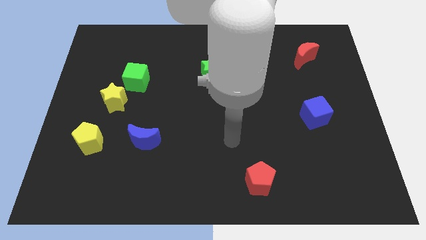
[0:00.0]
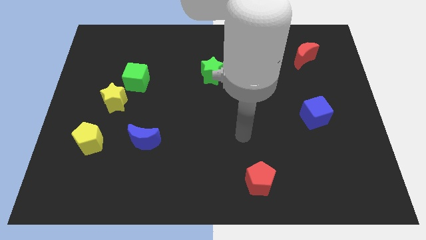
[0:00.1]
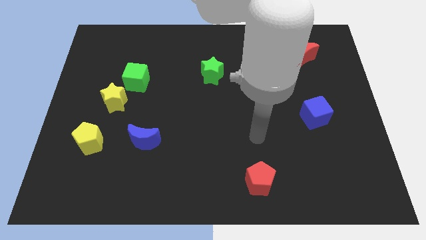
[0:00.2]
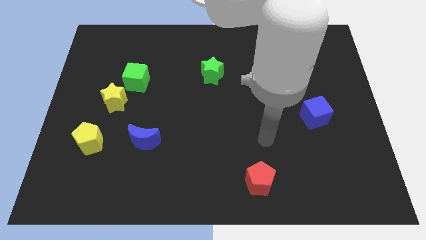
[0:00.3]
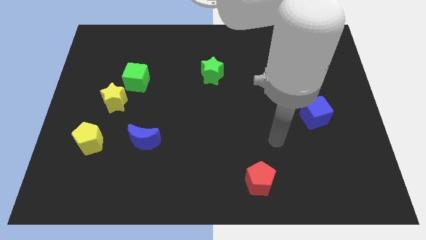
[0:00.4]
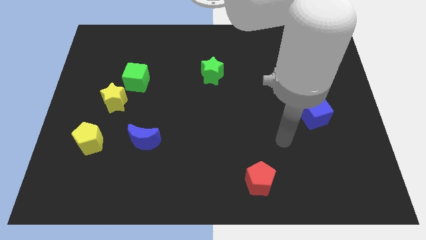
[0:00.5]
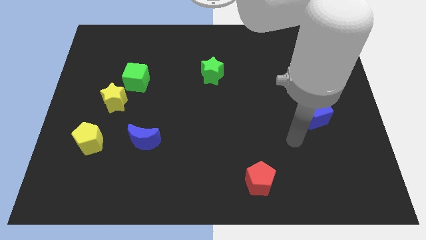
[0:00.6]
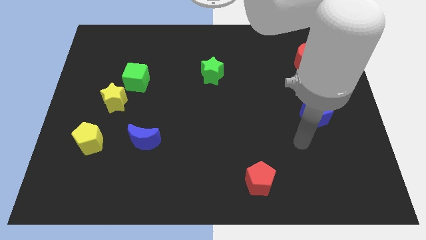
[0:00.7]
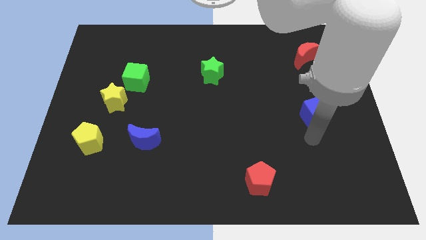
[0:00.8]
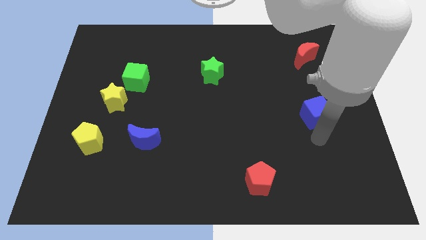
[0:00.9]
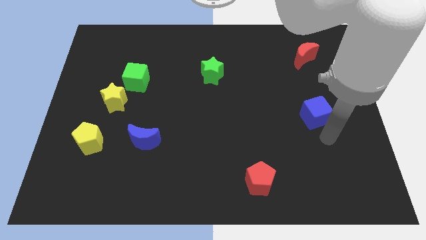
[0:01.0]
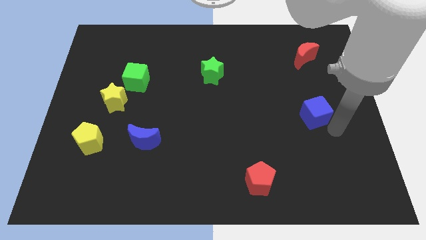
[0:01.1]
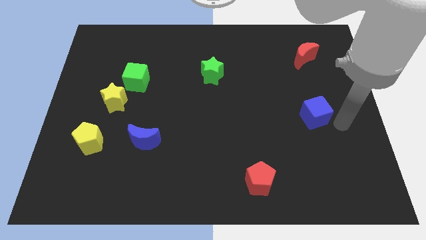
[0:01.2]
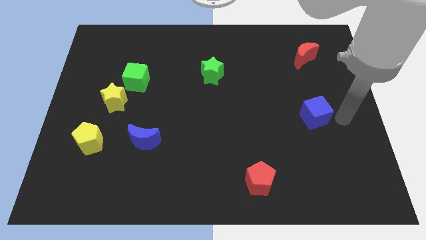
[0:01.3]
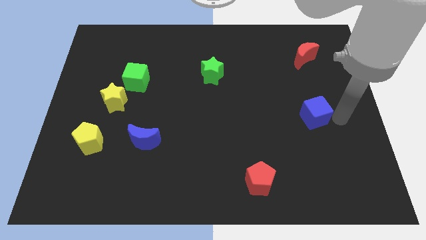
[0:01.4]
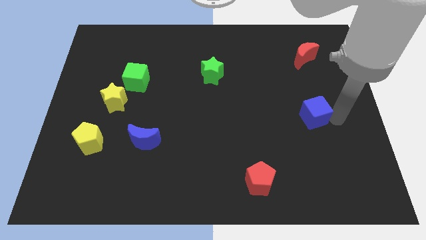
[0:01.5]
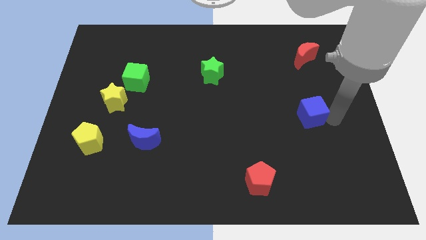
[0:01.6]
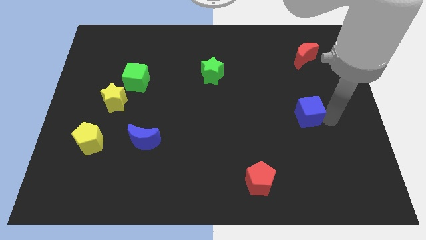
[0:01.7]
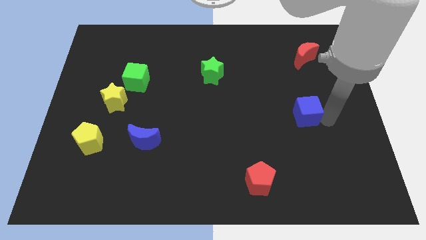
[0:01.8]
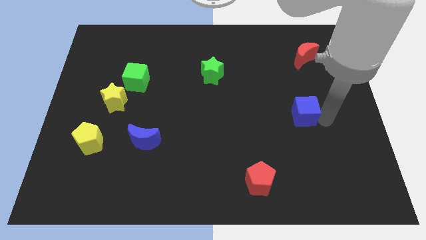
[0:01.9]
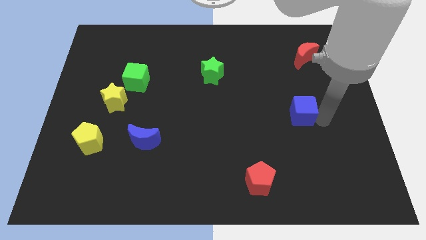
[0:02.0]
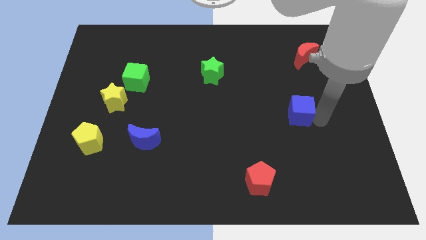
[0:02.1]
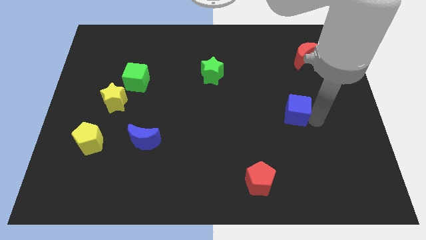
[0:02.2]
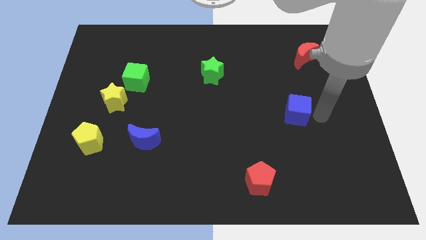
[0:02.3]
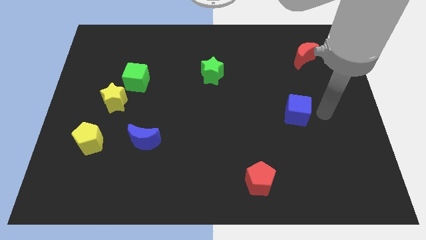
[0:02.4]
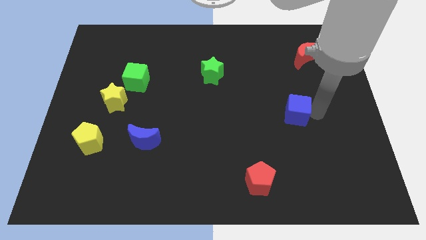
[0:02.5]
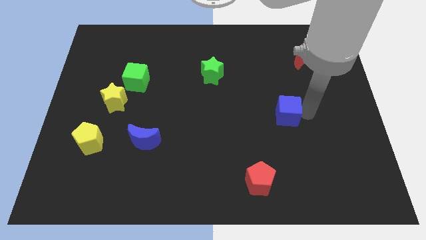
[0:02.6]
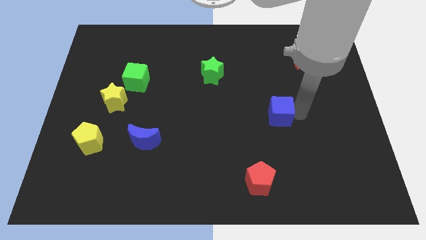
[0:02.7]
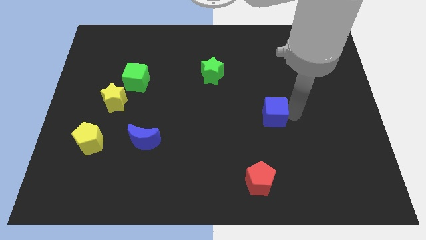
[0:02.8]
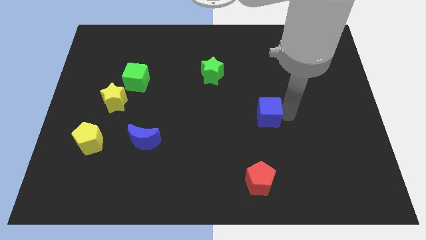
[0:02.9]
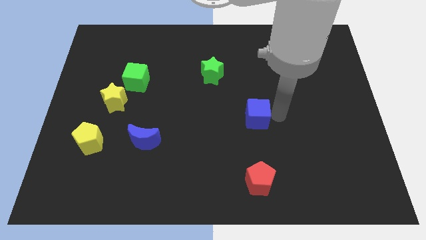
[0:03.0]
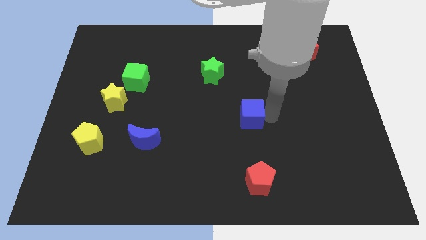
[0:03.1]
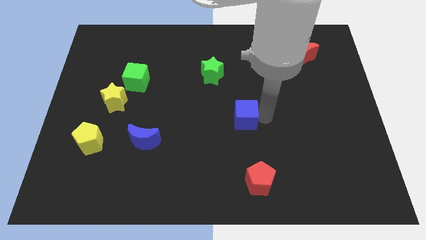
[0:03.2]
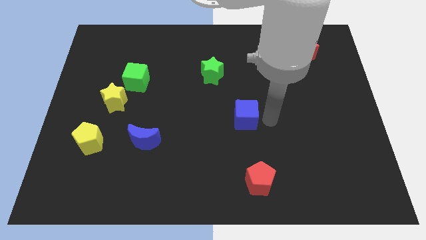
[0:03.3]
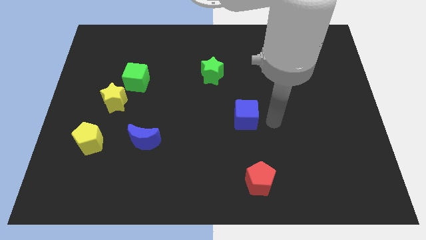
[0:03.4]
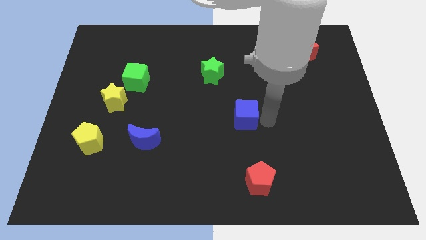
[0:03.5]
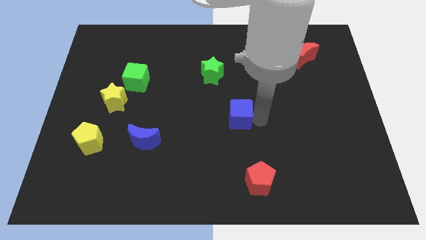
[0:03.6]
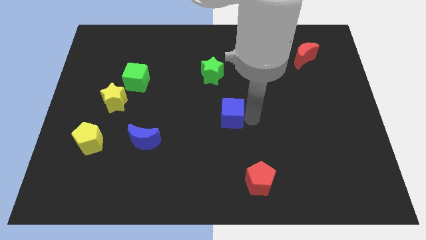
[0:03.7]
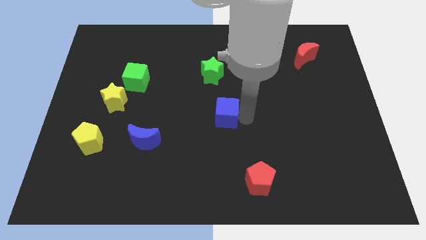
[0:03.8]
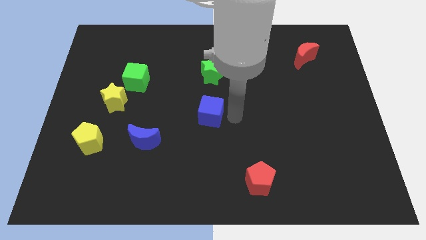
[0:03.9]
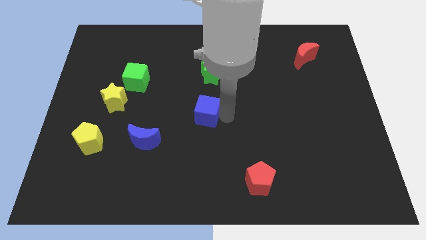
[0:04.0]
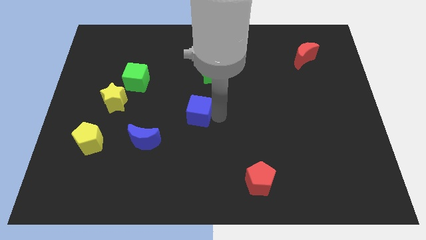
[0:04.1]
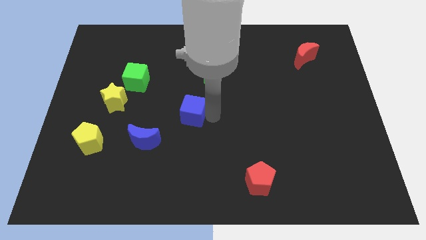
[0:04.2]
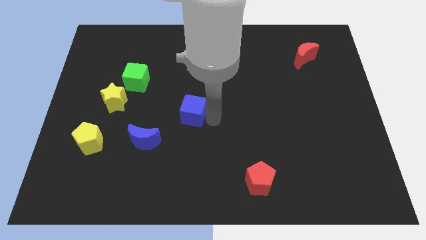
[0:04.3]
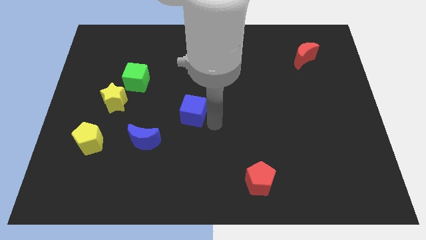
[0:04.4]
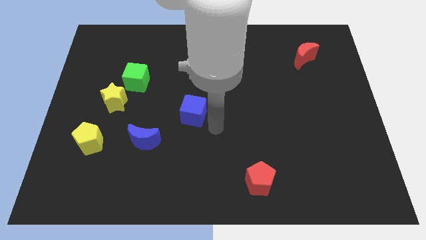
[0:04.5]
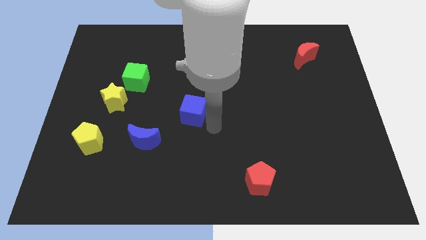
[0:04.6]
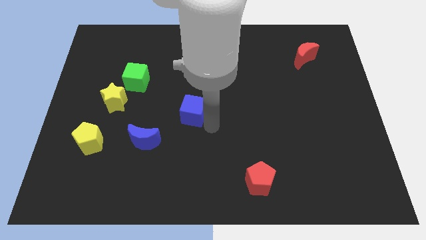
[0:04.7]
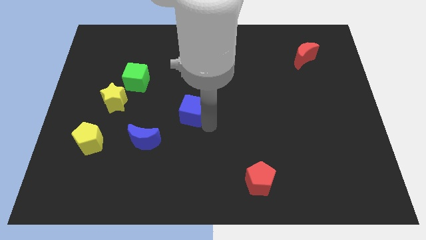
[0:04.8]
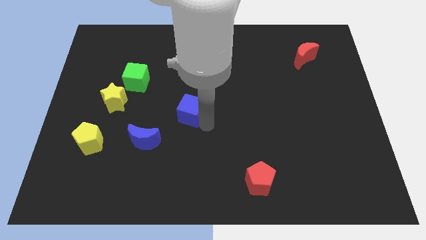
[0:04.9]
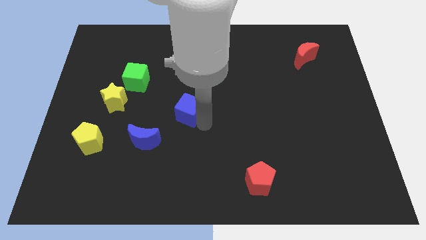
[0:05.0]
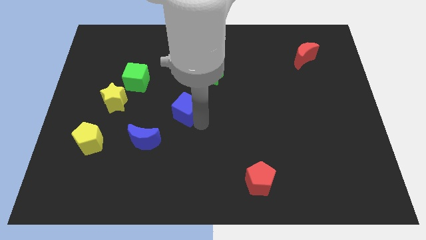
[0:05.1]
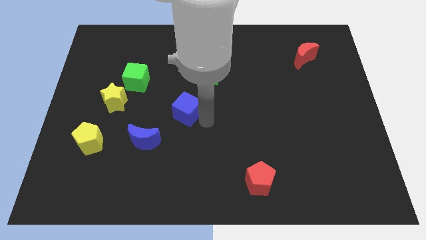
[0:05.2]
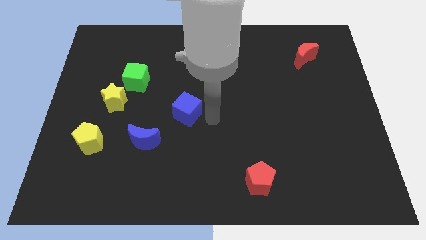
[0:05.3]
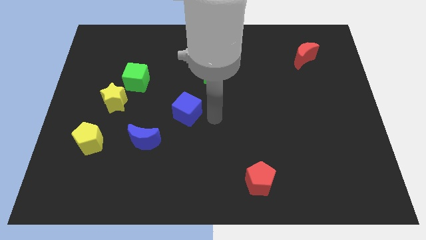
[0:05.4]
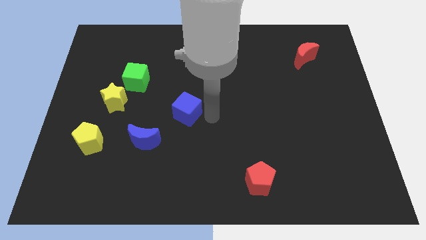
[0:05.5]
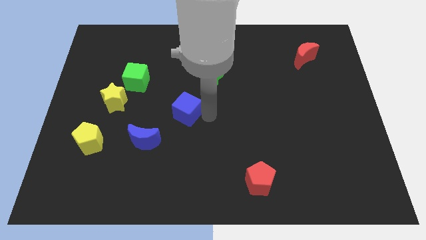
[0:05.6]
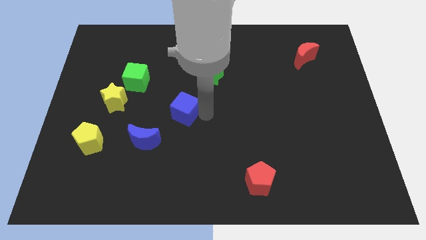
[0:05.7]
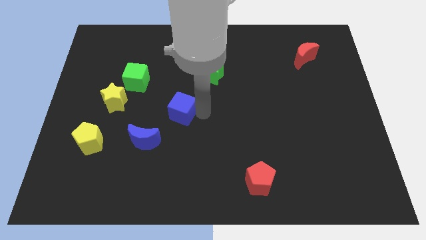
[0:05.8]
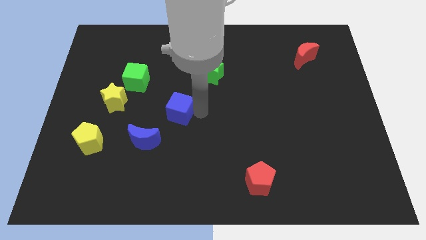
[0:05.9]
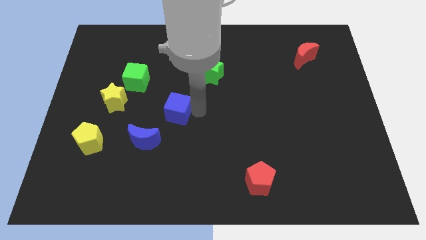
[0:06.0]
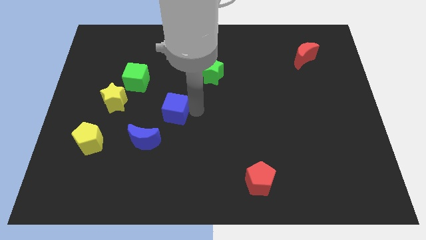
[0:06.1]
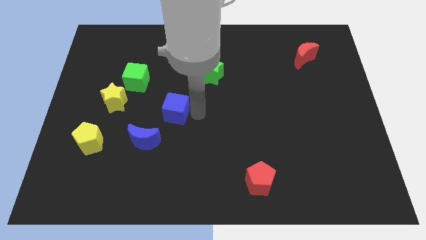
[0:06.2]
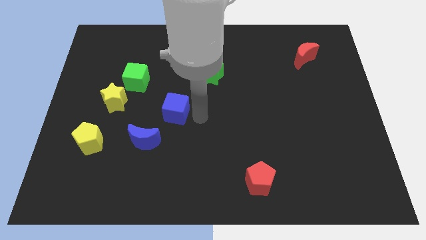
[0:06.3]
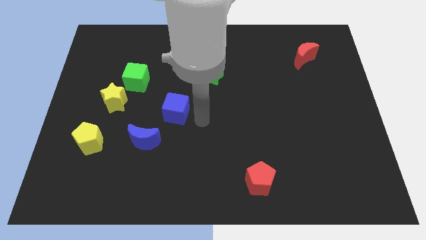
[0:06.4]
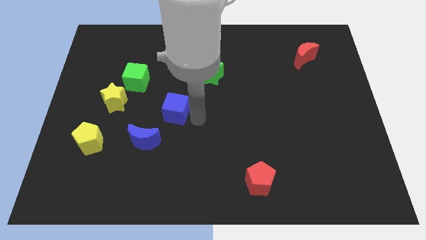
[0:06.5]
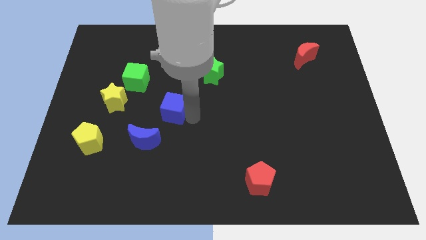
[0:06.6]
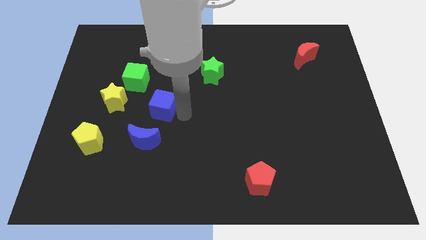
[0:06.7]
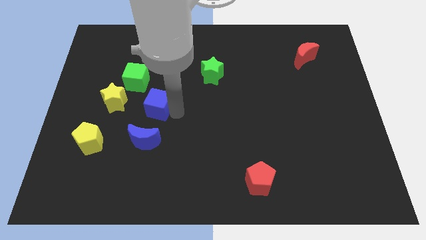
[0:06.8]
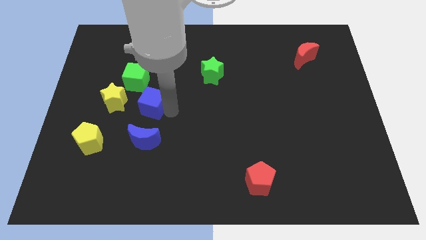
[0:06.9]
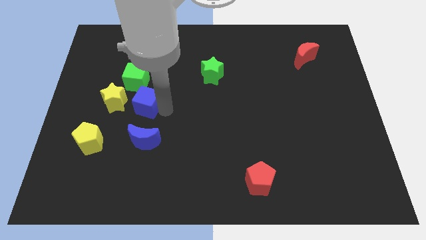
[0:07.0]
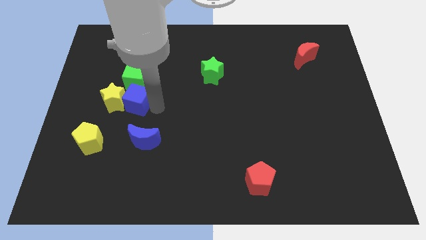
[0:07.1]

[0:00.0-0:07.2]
put the blue cube to the yellow star

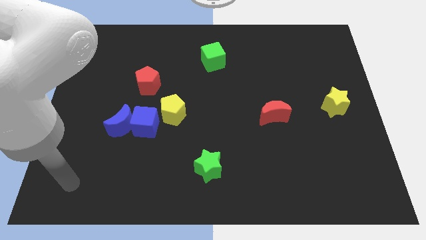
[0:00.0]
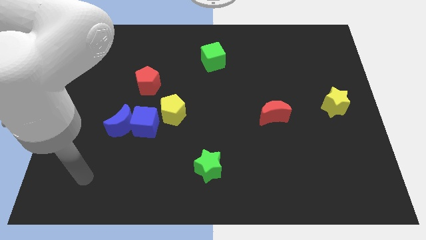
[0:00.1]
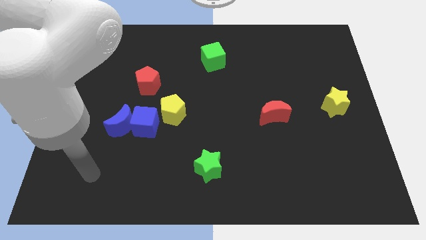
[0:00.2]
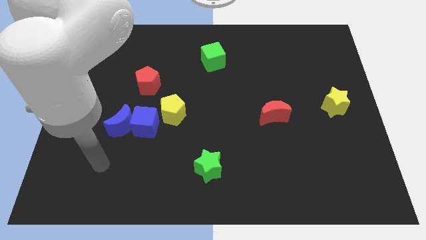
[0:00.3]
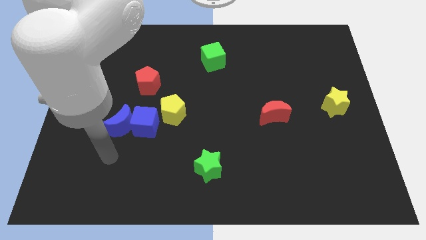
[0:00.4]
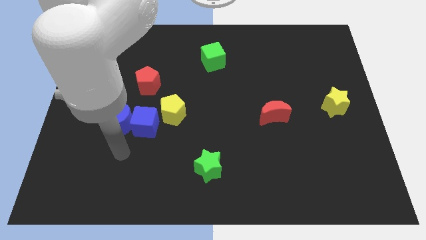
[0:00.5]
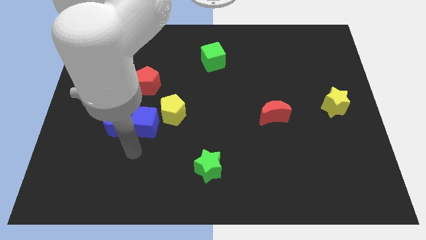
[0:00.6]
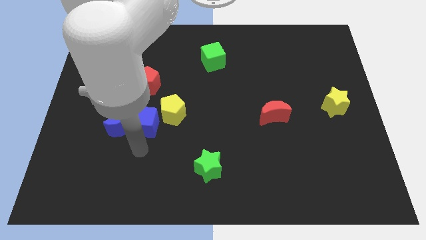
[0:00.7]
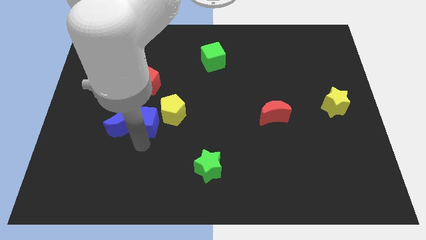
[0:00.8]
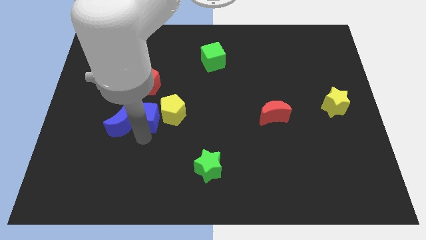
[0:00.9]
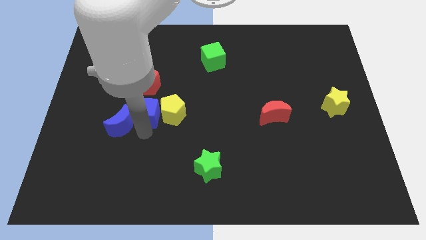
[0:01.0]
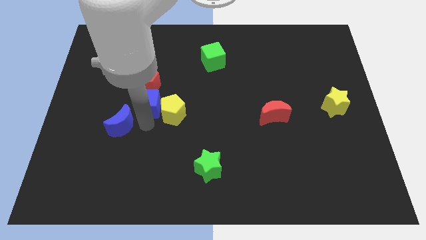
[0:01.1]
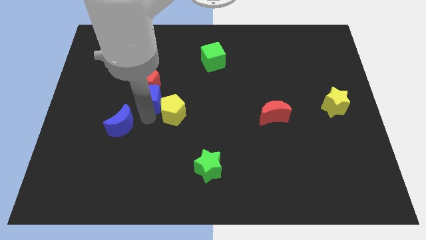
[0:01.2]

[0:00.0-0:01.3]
slide the blue cube next to the red pentagon
